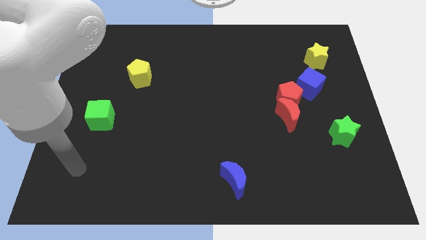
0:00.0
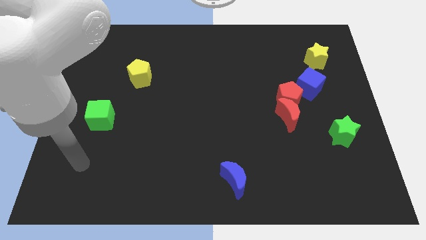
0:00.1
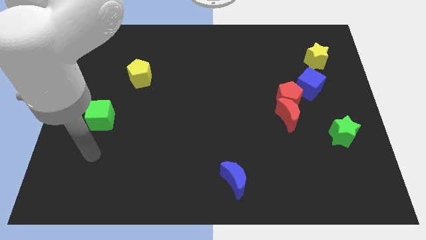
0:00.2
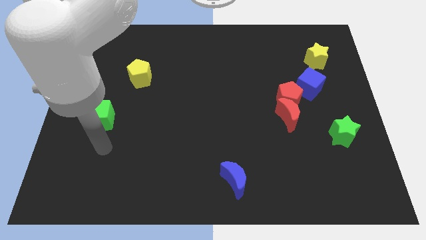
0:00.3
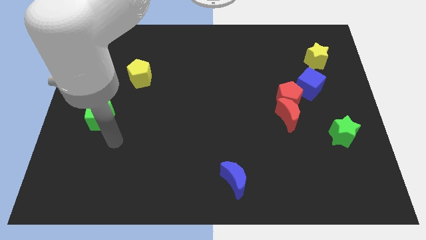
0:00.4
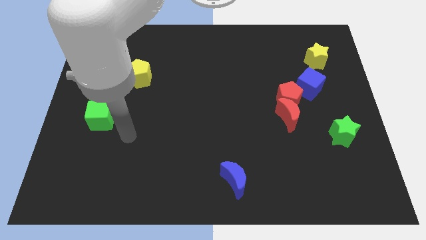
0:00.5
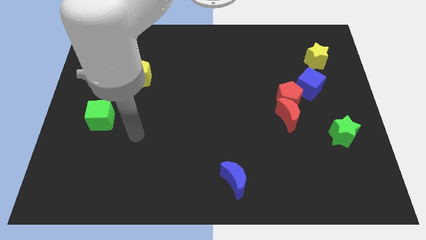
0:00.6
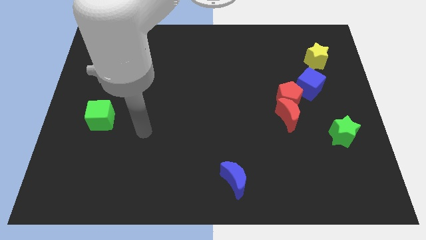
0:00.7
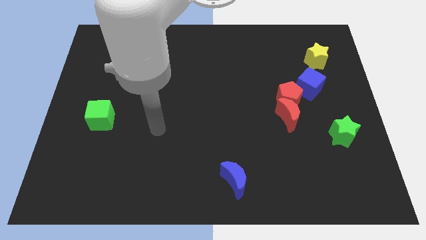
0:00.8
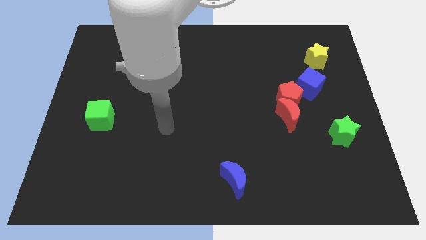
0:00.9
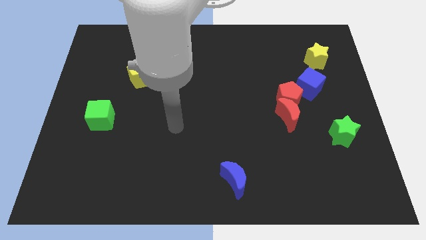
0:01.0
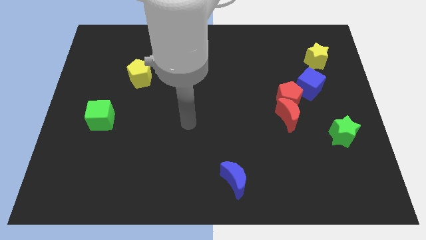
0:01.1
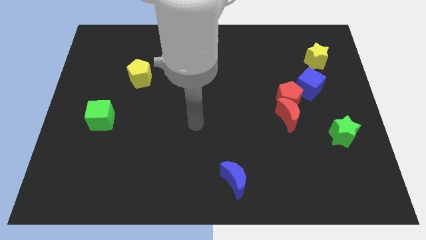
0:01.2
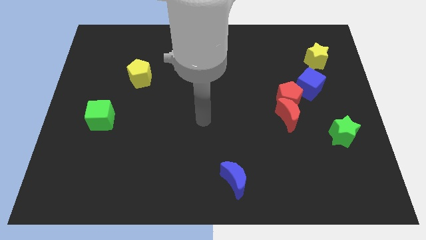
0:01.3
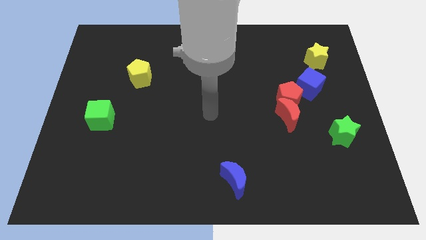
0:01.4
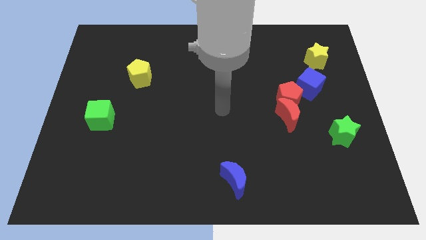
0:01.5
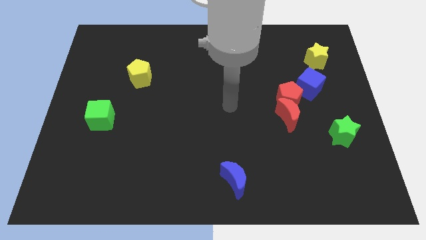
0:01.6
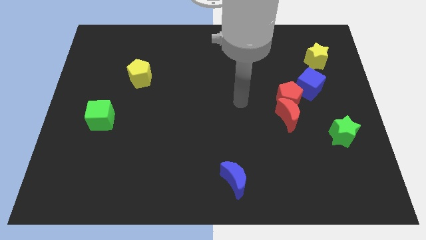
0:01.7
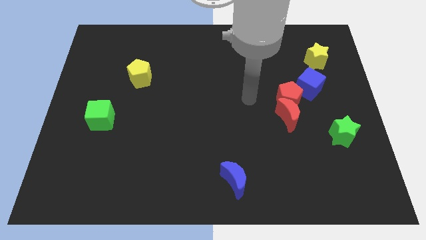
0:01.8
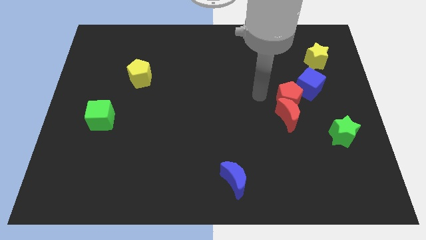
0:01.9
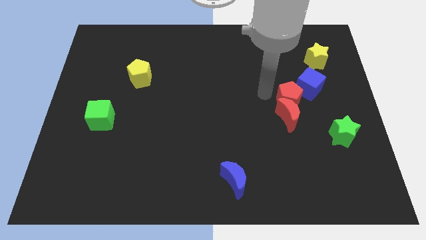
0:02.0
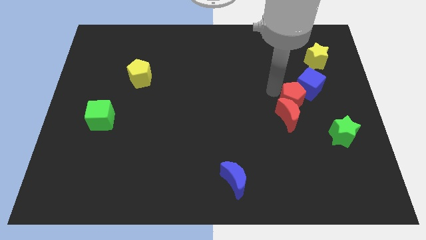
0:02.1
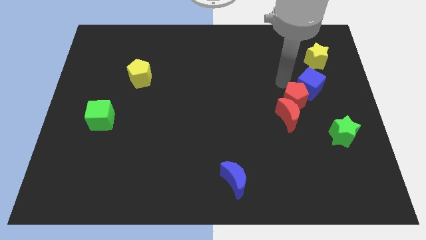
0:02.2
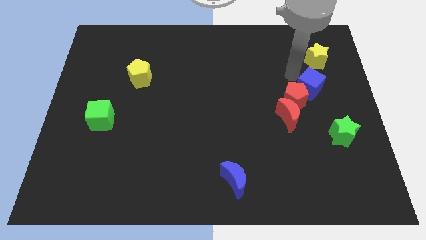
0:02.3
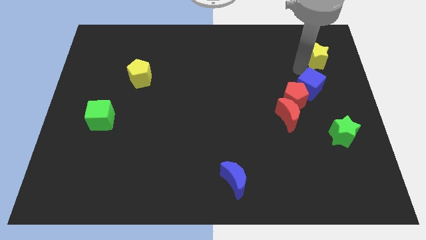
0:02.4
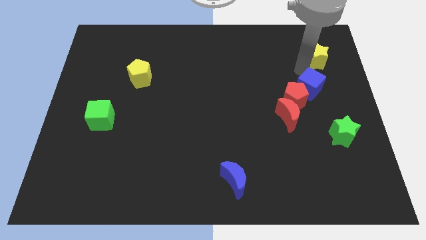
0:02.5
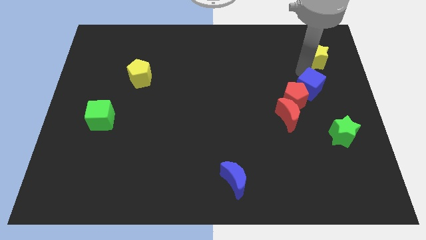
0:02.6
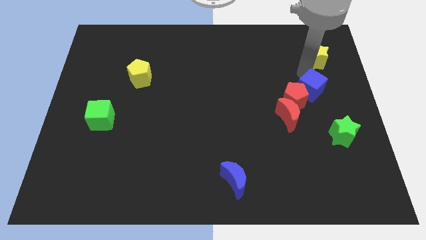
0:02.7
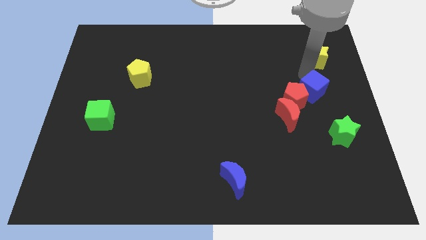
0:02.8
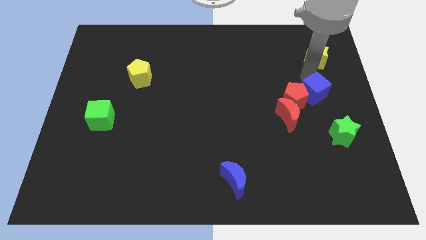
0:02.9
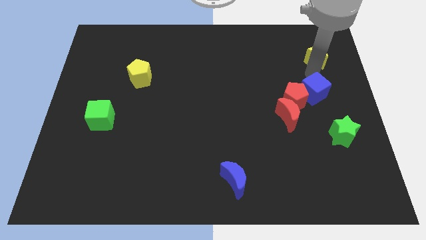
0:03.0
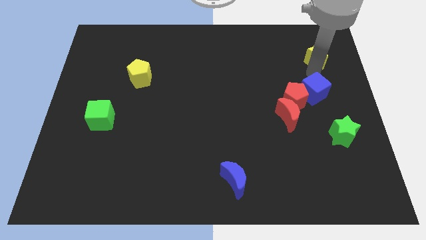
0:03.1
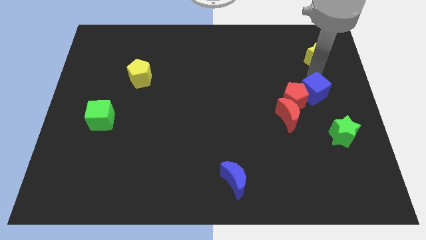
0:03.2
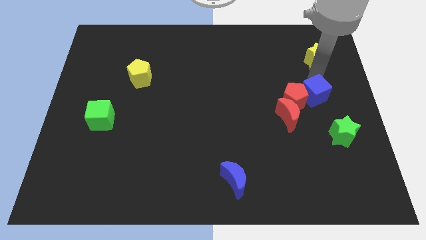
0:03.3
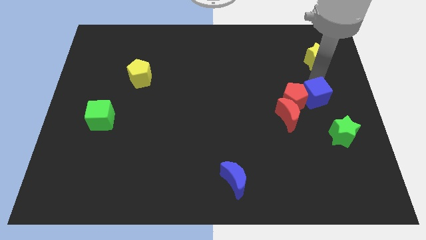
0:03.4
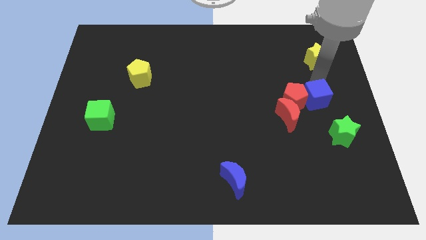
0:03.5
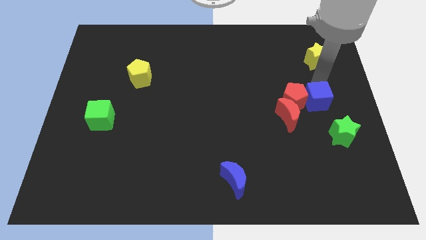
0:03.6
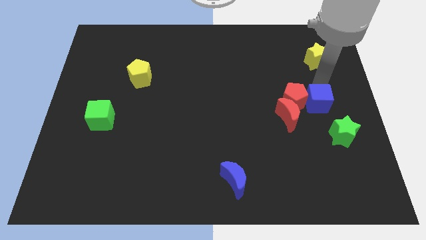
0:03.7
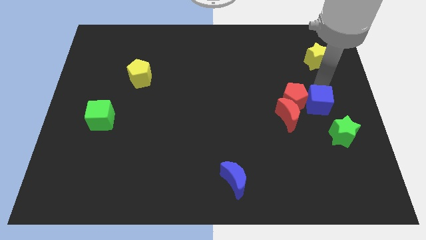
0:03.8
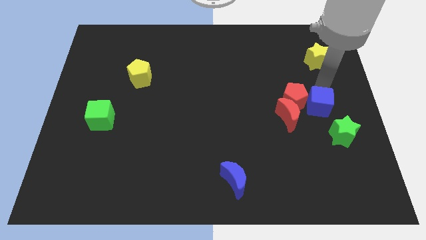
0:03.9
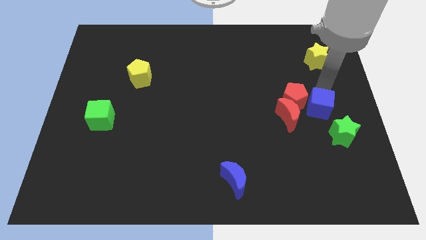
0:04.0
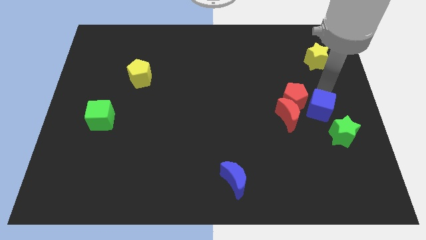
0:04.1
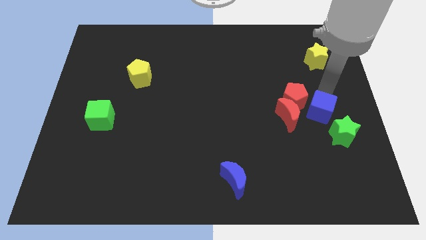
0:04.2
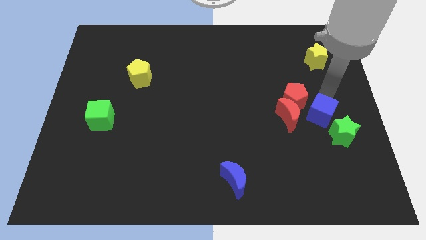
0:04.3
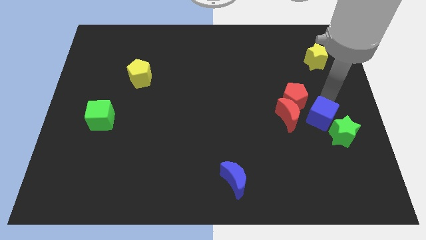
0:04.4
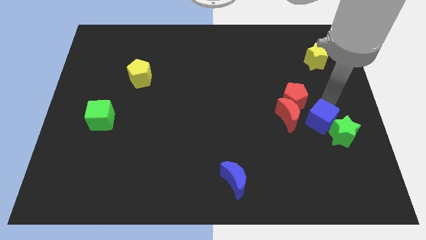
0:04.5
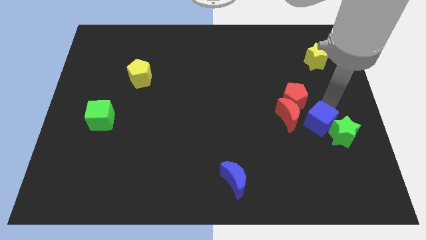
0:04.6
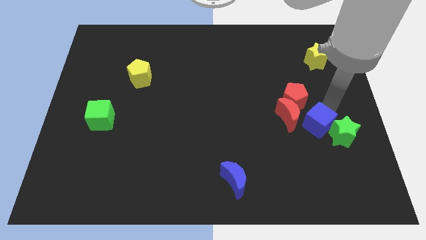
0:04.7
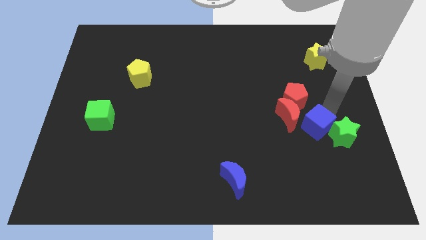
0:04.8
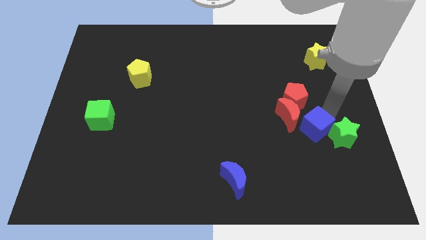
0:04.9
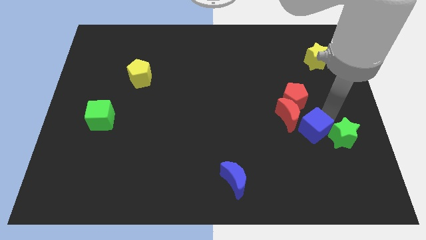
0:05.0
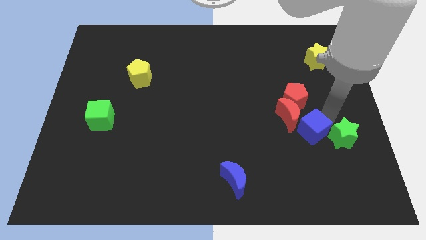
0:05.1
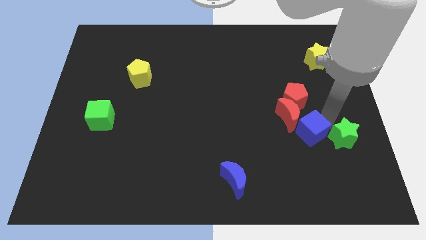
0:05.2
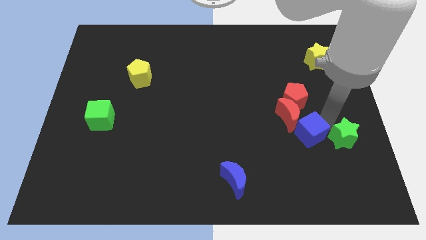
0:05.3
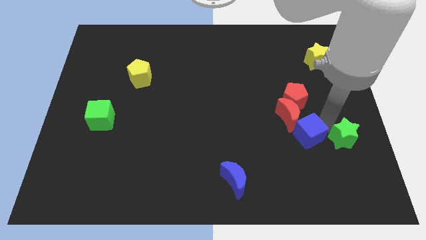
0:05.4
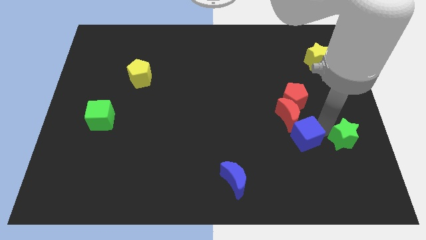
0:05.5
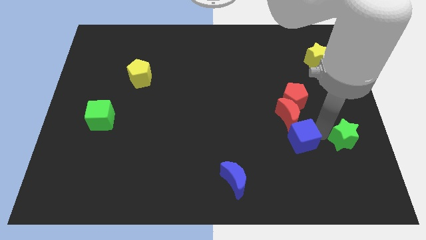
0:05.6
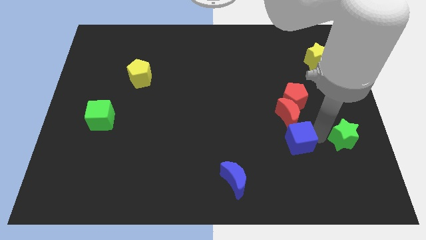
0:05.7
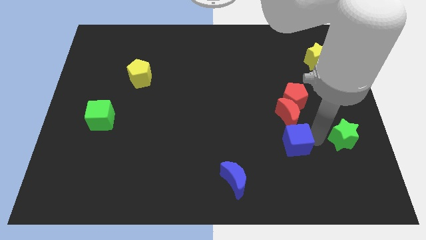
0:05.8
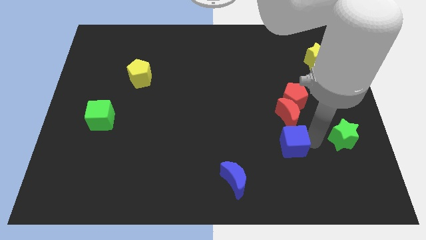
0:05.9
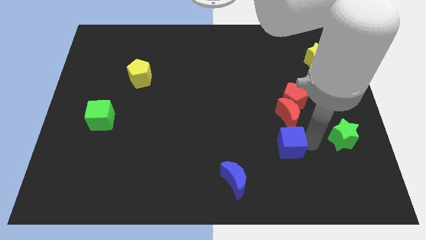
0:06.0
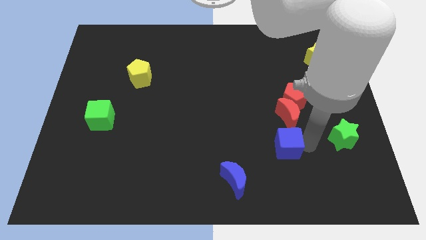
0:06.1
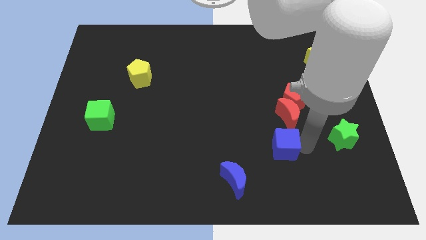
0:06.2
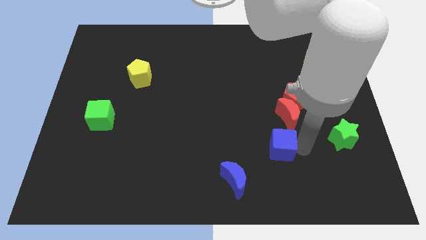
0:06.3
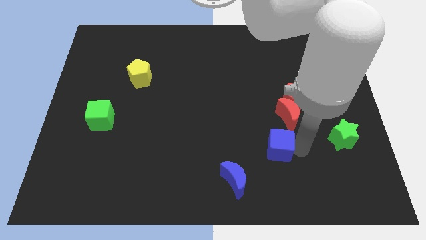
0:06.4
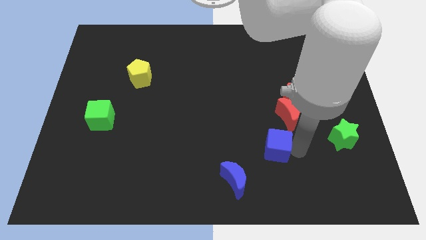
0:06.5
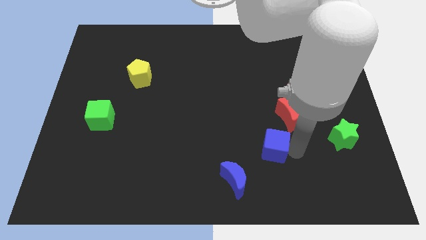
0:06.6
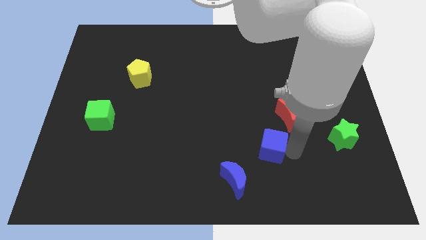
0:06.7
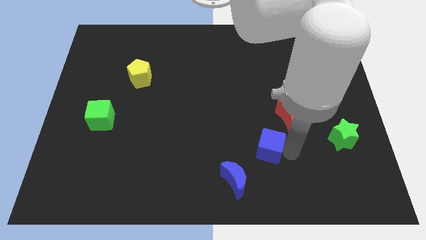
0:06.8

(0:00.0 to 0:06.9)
move the blue cube downwards and to the left diagonally

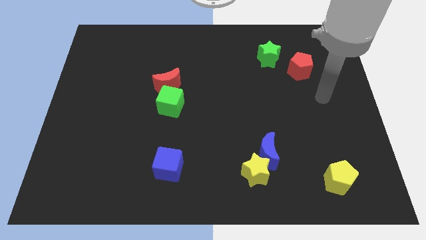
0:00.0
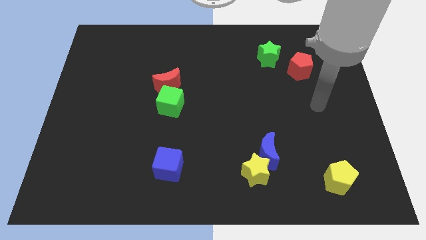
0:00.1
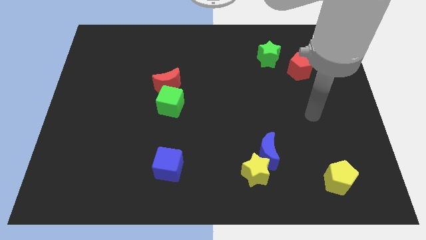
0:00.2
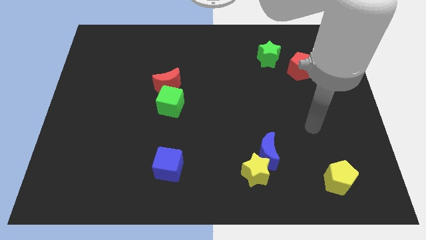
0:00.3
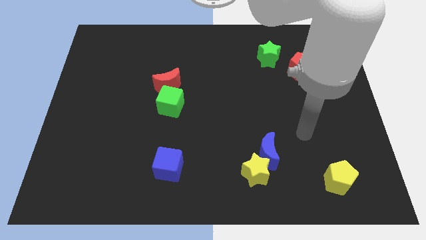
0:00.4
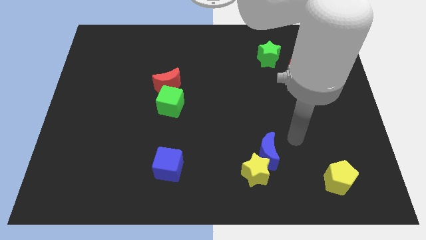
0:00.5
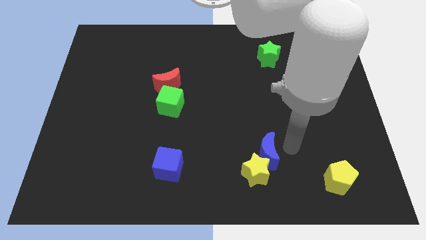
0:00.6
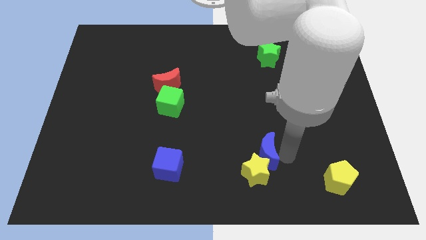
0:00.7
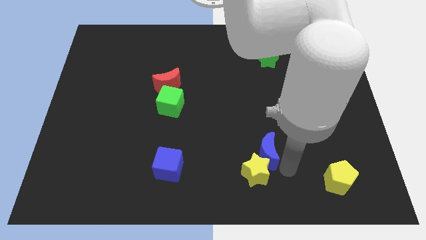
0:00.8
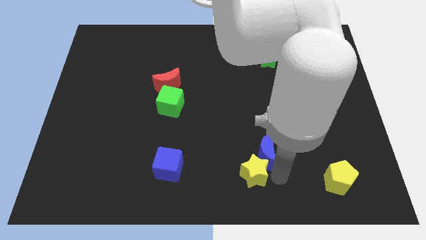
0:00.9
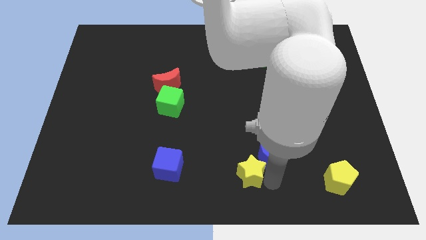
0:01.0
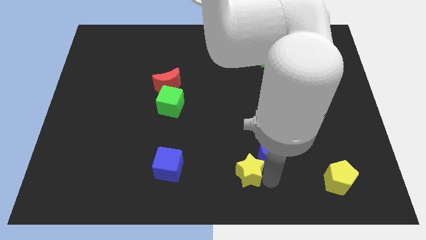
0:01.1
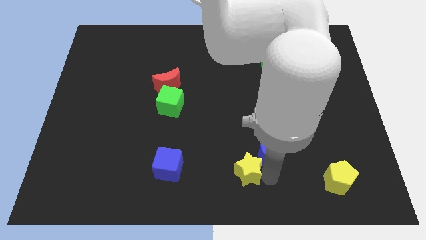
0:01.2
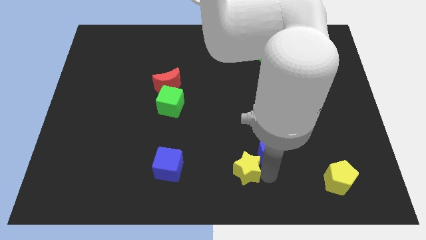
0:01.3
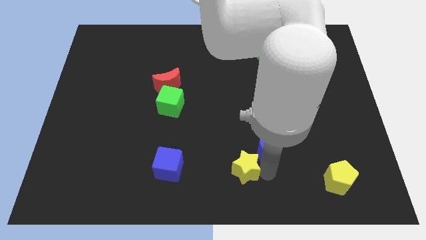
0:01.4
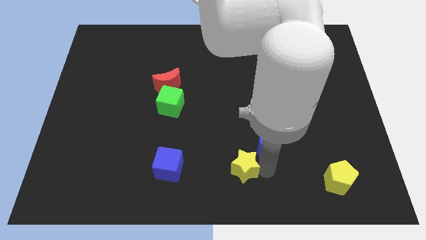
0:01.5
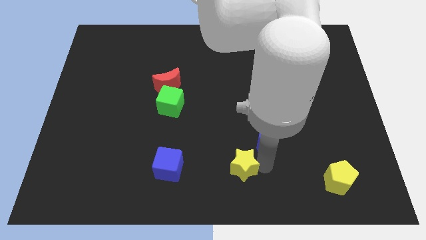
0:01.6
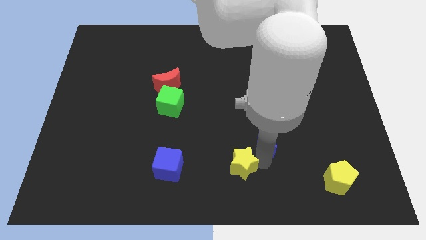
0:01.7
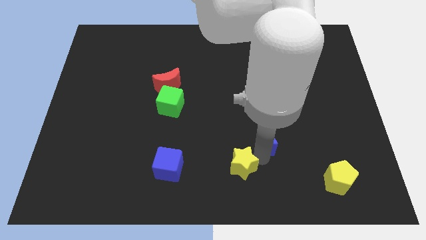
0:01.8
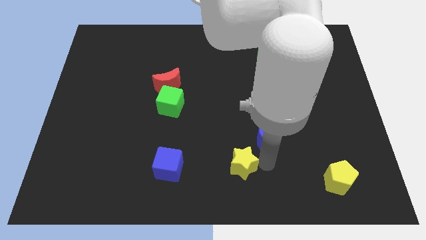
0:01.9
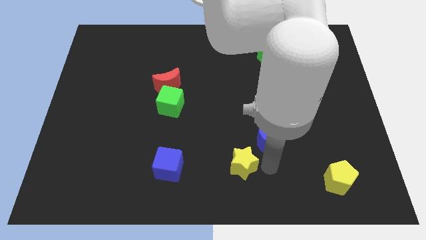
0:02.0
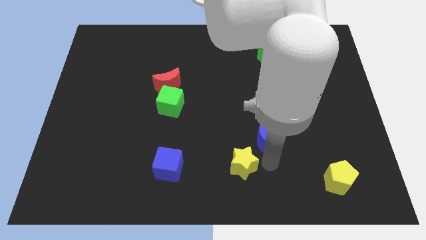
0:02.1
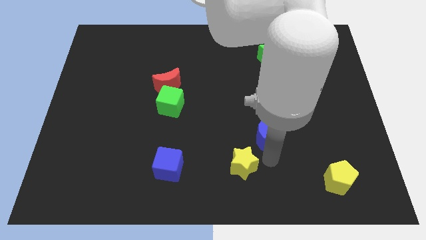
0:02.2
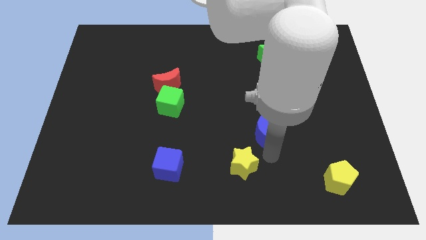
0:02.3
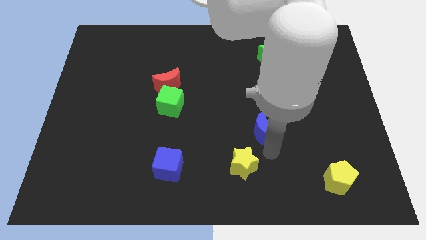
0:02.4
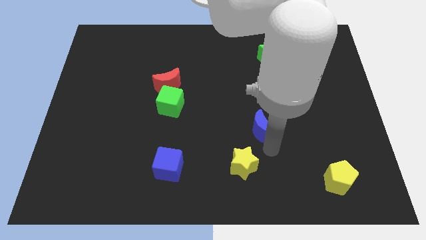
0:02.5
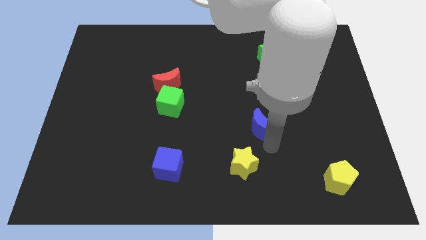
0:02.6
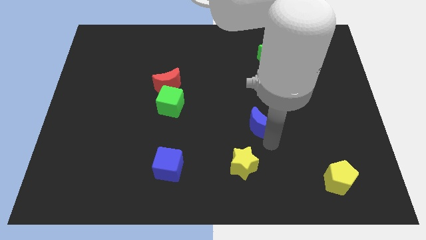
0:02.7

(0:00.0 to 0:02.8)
slightly push the blue moon upwards
